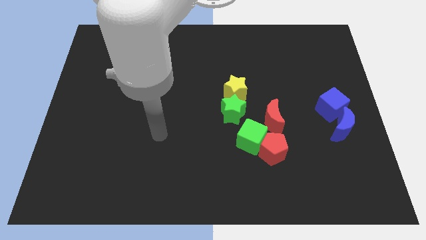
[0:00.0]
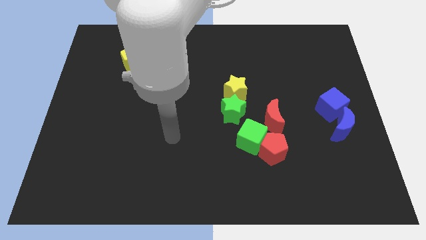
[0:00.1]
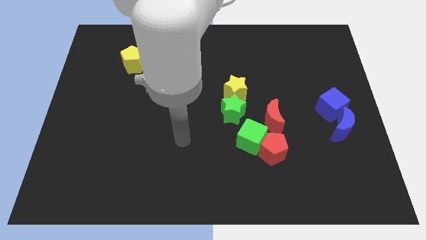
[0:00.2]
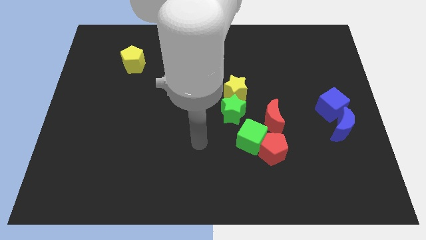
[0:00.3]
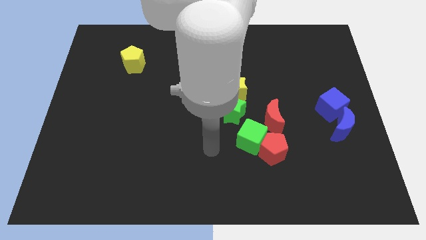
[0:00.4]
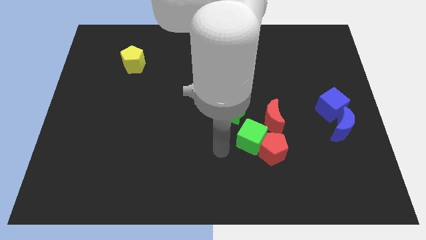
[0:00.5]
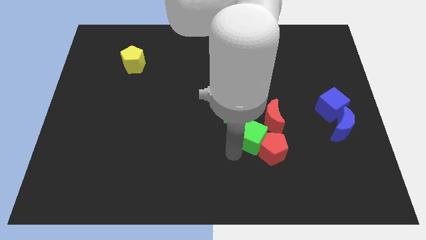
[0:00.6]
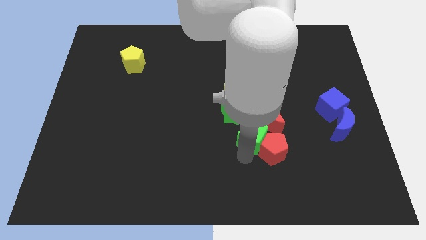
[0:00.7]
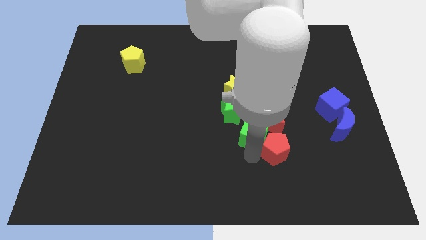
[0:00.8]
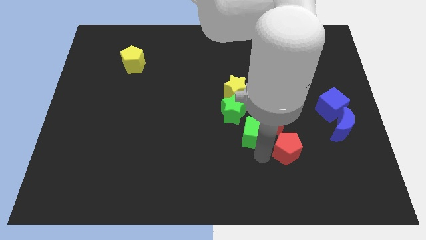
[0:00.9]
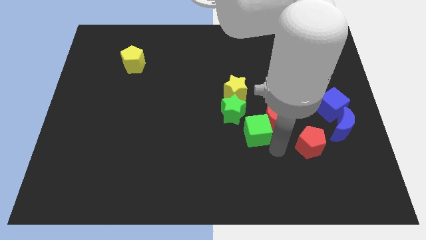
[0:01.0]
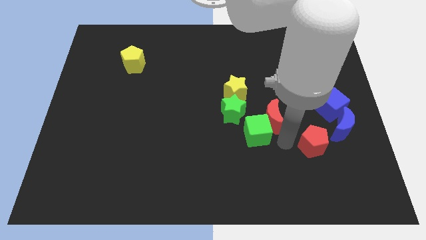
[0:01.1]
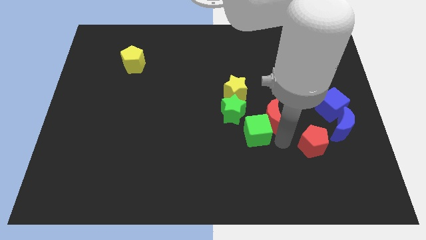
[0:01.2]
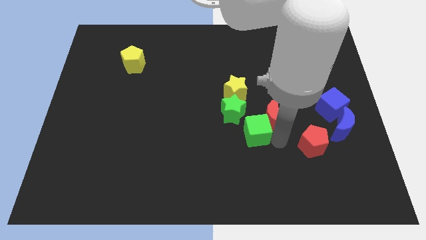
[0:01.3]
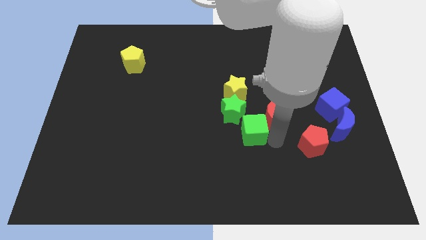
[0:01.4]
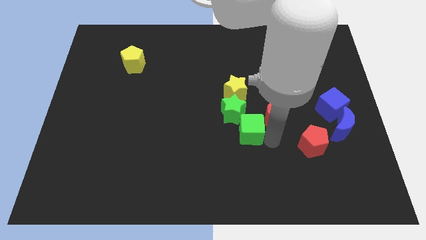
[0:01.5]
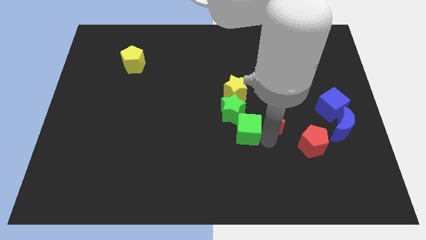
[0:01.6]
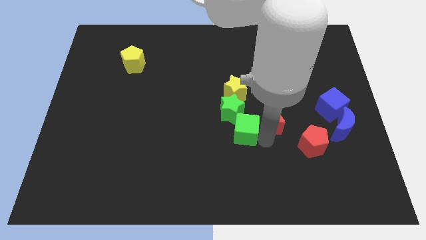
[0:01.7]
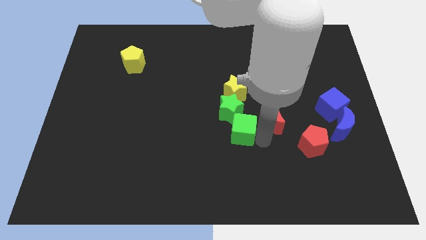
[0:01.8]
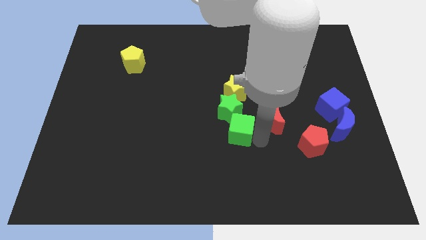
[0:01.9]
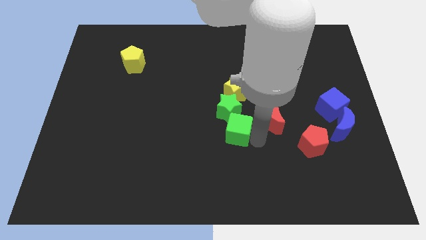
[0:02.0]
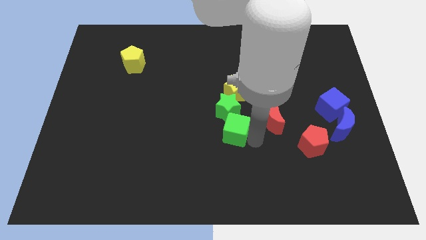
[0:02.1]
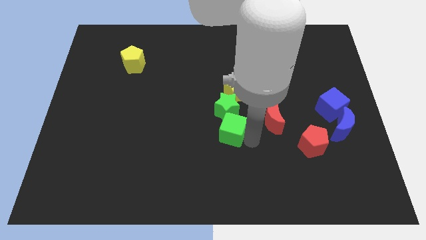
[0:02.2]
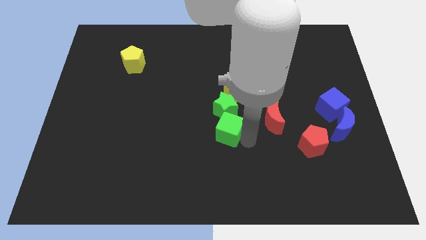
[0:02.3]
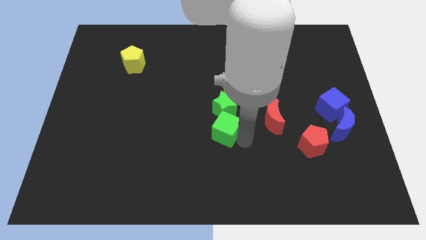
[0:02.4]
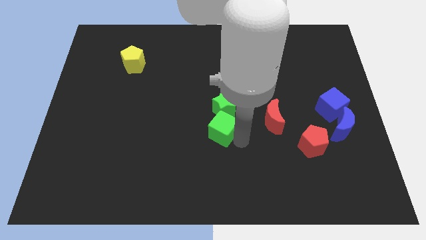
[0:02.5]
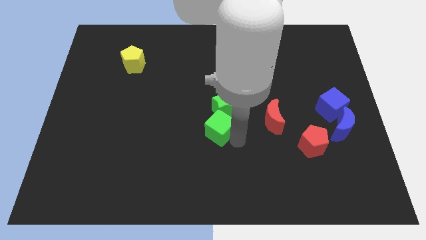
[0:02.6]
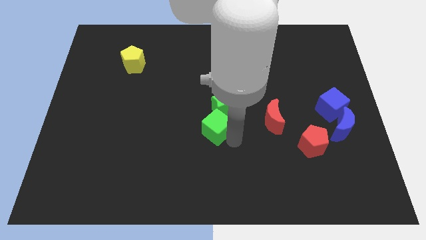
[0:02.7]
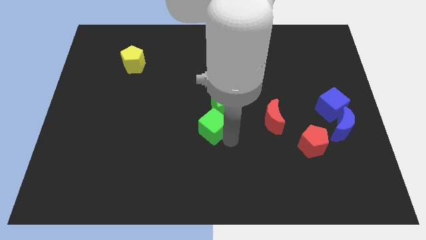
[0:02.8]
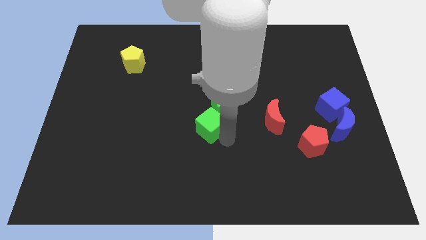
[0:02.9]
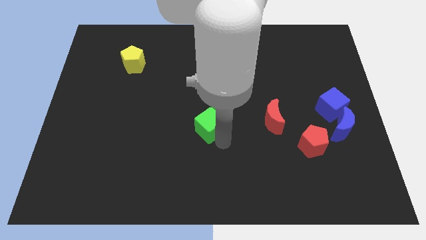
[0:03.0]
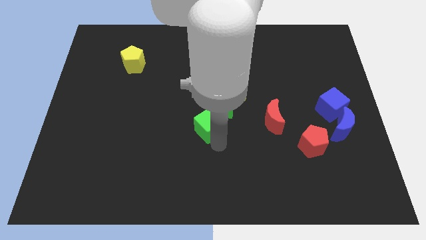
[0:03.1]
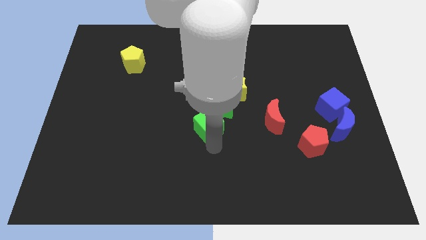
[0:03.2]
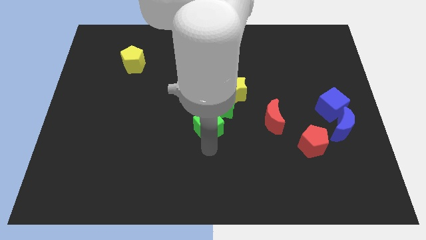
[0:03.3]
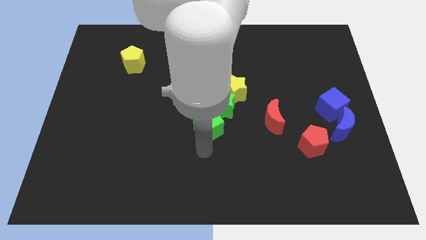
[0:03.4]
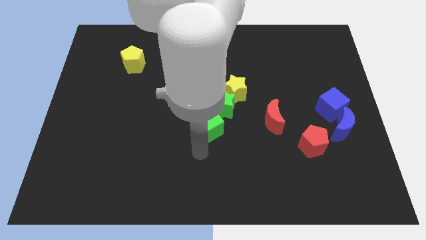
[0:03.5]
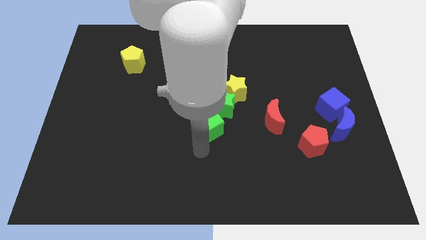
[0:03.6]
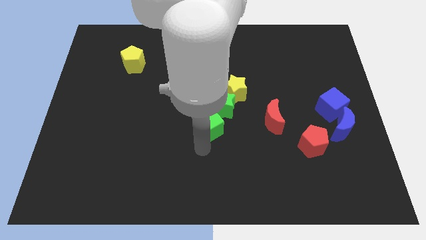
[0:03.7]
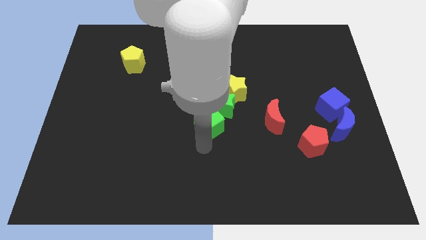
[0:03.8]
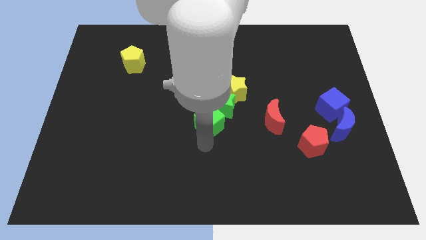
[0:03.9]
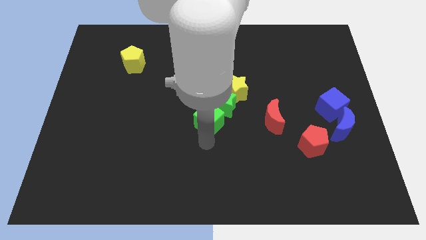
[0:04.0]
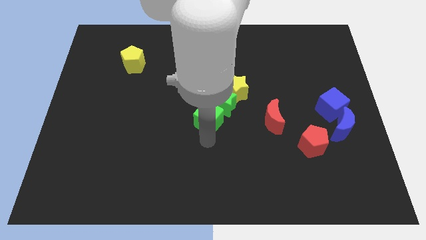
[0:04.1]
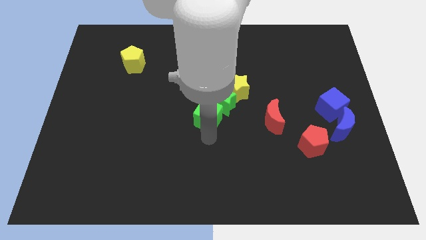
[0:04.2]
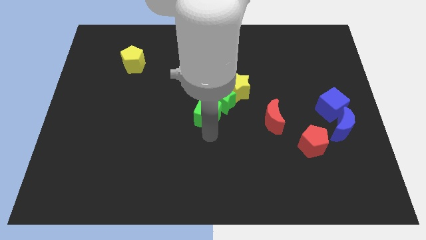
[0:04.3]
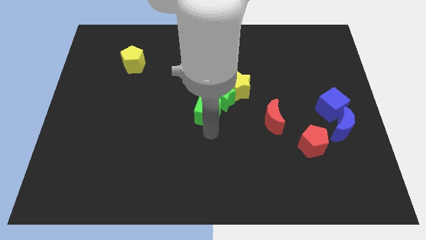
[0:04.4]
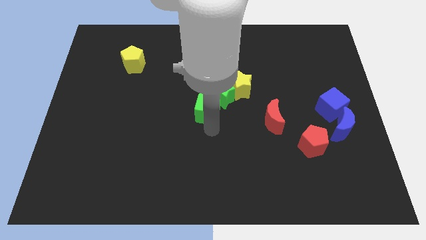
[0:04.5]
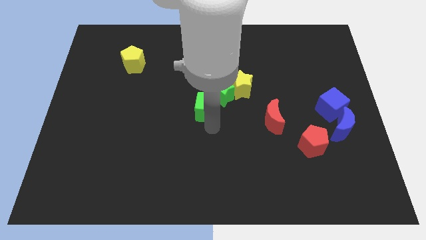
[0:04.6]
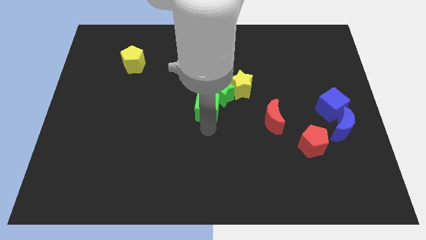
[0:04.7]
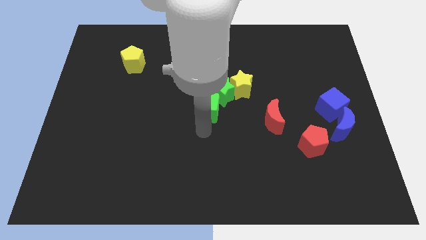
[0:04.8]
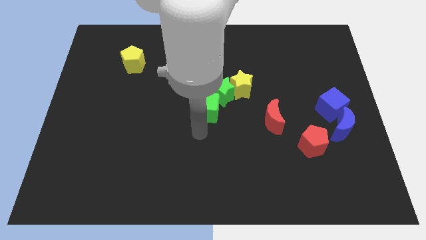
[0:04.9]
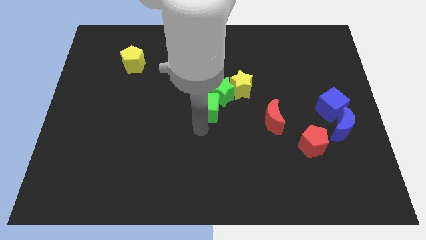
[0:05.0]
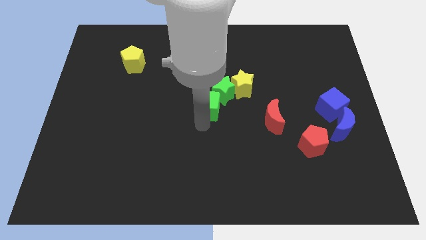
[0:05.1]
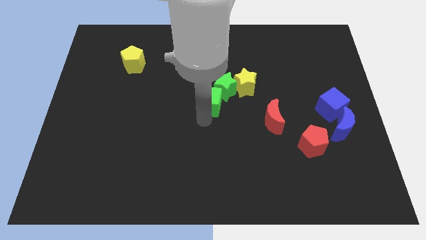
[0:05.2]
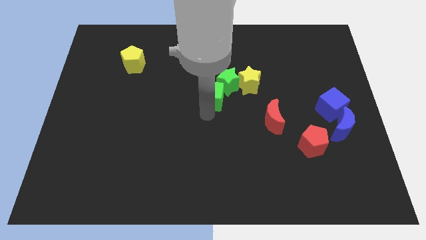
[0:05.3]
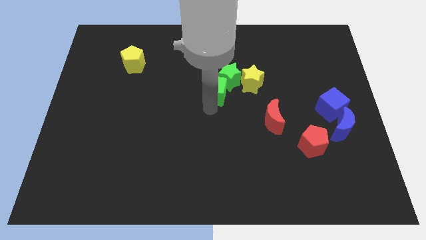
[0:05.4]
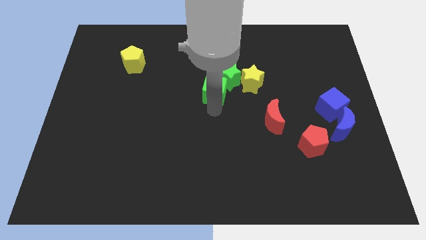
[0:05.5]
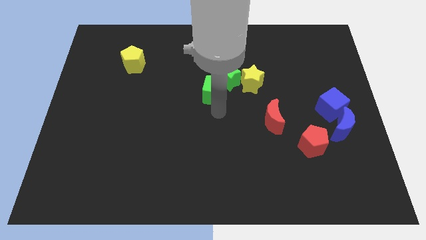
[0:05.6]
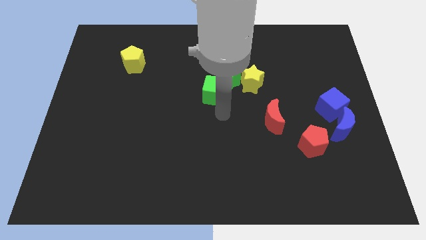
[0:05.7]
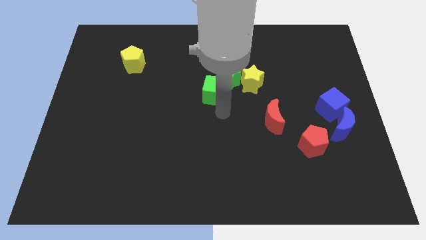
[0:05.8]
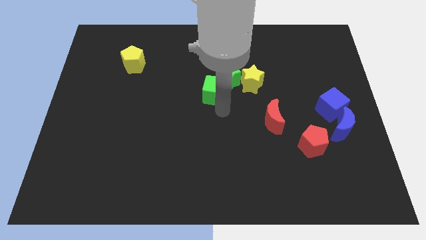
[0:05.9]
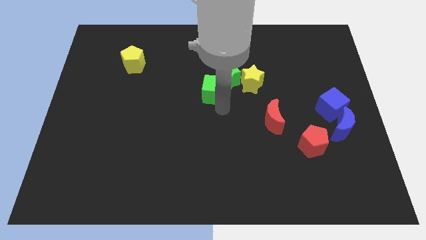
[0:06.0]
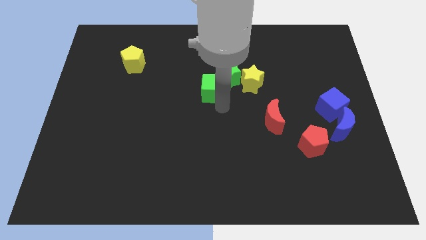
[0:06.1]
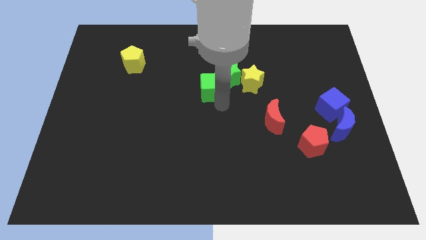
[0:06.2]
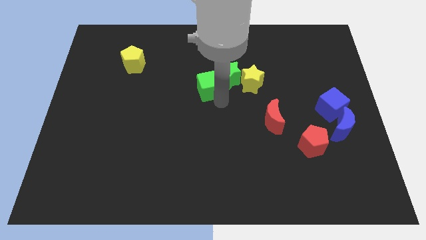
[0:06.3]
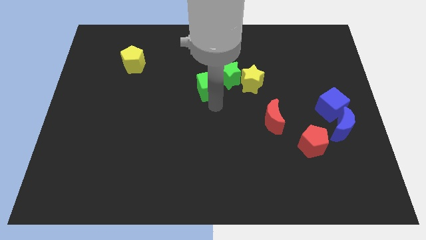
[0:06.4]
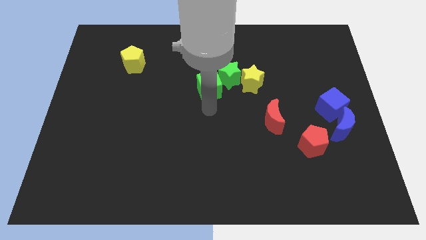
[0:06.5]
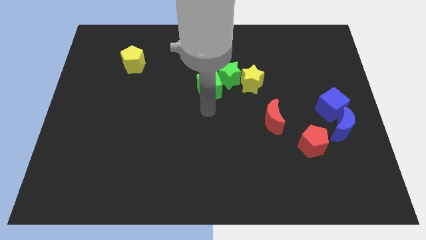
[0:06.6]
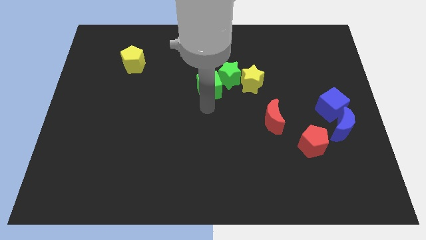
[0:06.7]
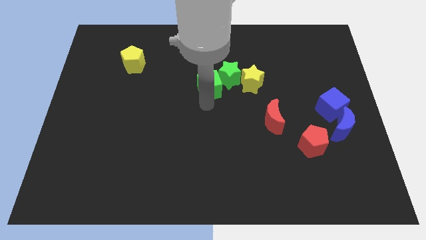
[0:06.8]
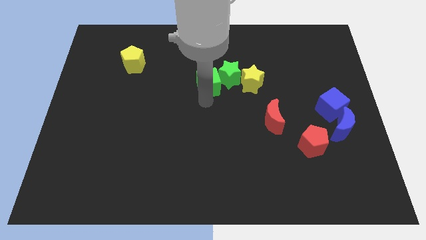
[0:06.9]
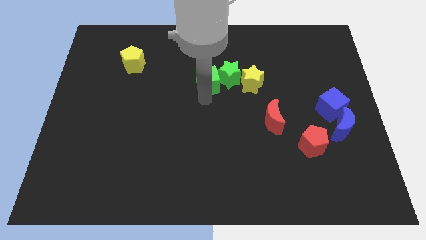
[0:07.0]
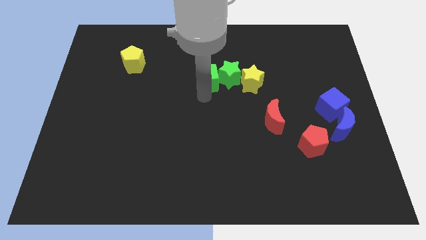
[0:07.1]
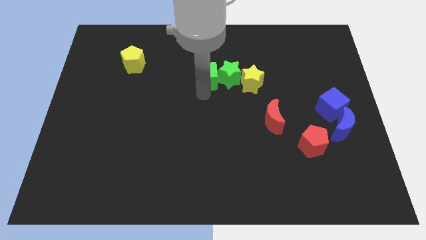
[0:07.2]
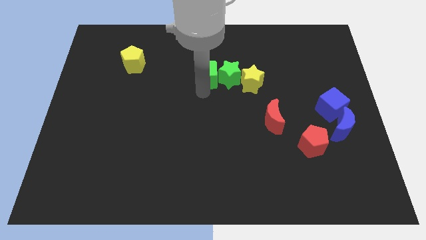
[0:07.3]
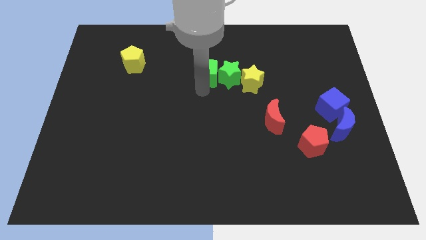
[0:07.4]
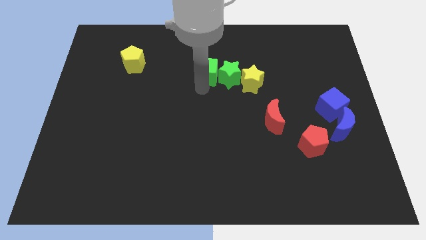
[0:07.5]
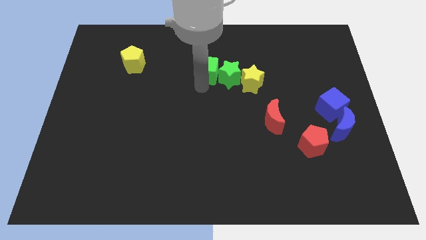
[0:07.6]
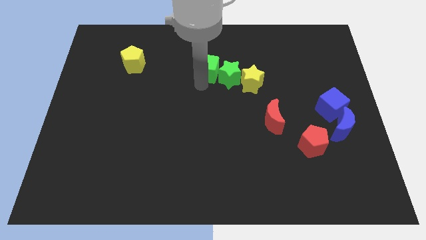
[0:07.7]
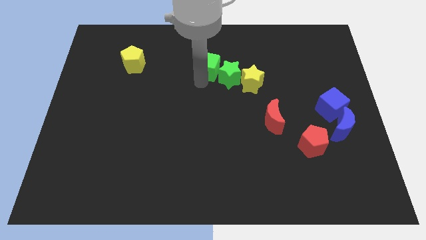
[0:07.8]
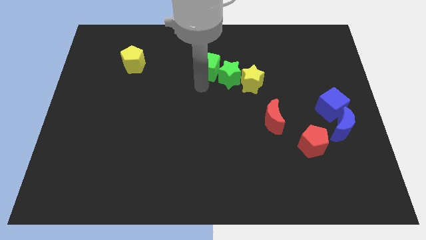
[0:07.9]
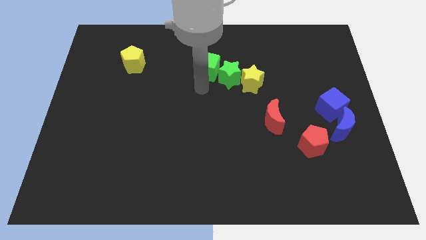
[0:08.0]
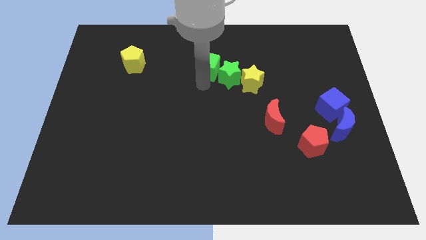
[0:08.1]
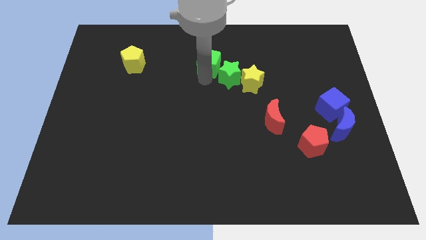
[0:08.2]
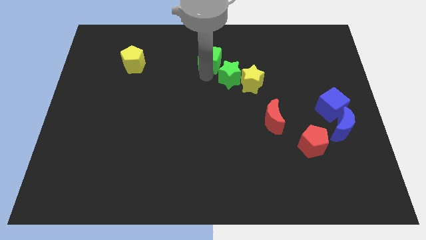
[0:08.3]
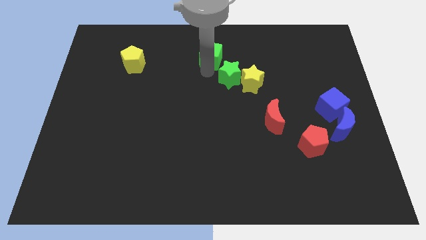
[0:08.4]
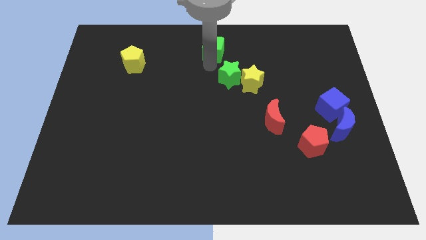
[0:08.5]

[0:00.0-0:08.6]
put the green cube to the top
